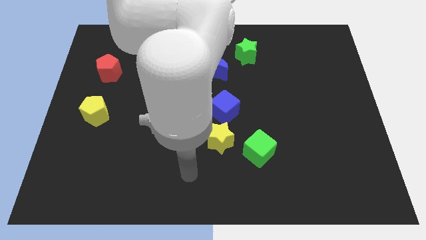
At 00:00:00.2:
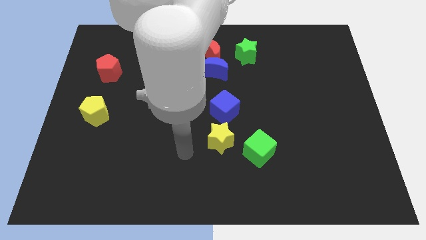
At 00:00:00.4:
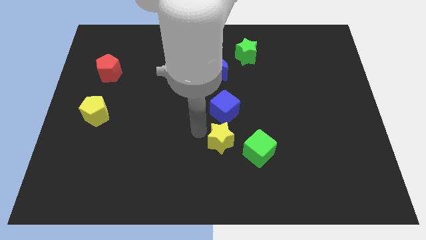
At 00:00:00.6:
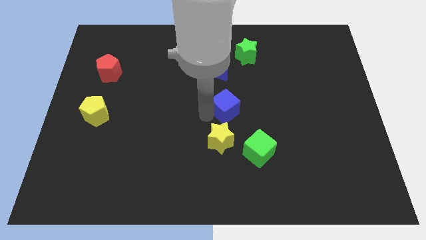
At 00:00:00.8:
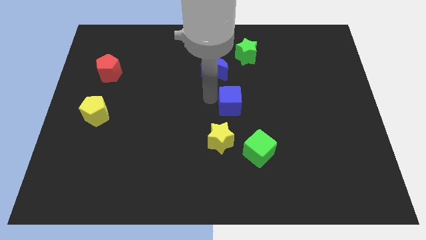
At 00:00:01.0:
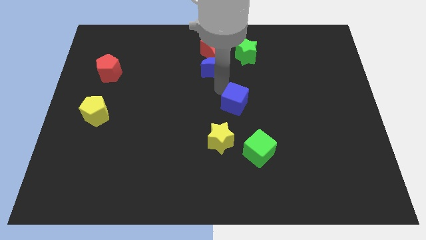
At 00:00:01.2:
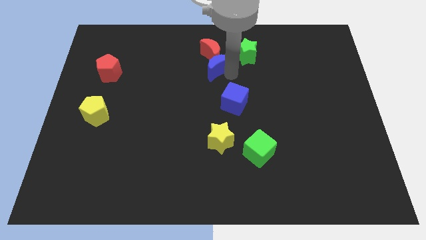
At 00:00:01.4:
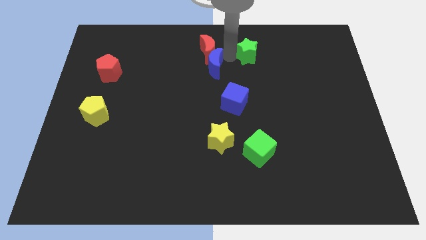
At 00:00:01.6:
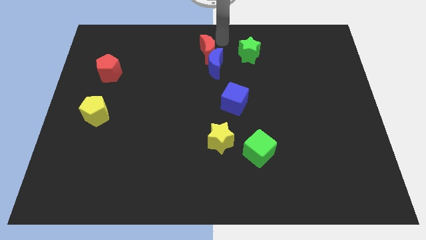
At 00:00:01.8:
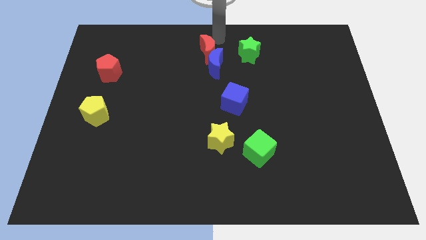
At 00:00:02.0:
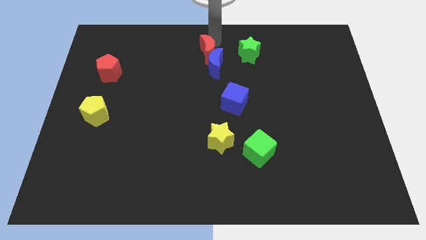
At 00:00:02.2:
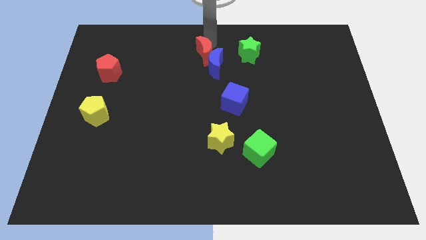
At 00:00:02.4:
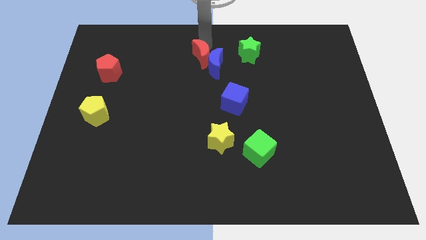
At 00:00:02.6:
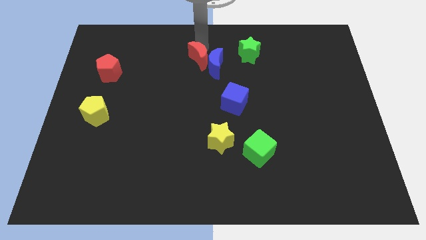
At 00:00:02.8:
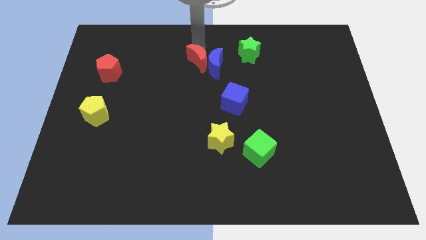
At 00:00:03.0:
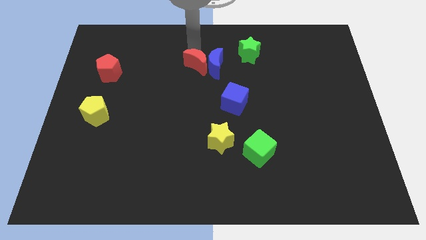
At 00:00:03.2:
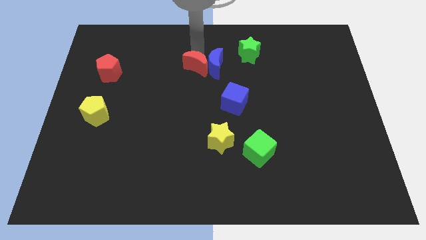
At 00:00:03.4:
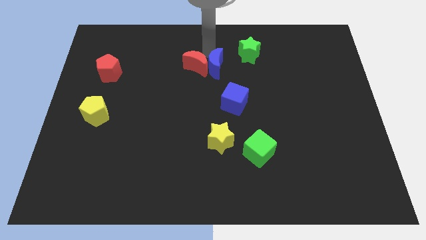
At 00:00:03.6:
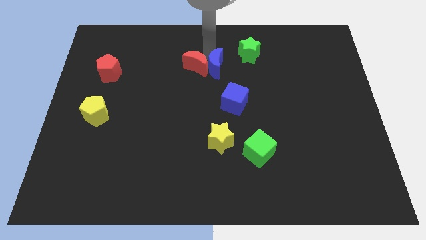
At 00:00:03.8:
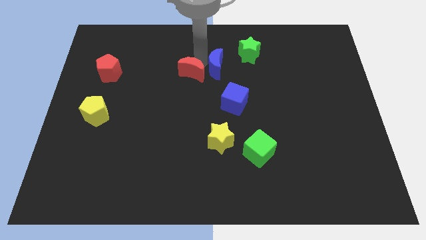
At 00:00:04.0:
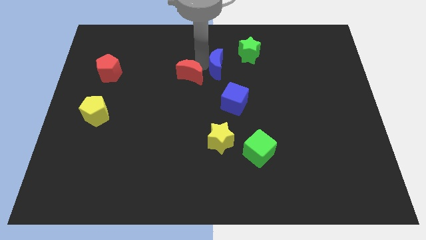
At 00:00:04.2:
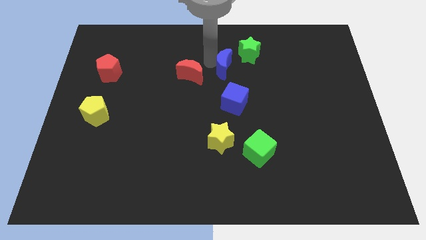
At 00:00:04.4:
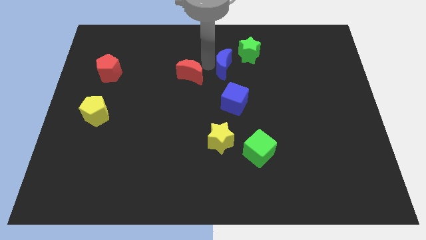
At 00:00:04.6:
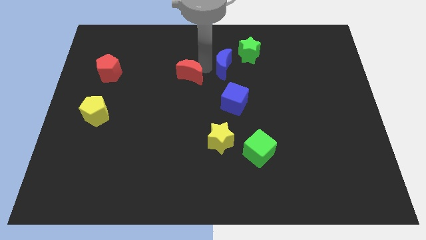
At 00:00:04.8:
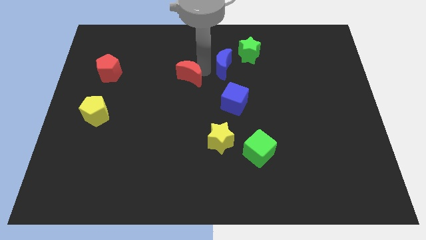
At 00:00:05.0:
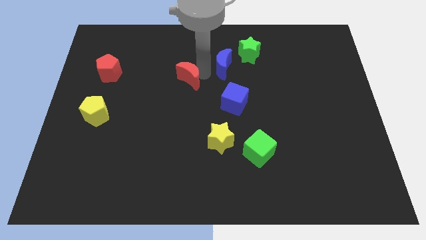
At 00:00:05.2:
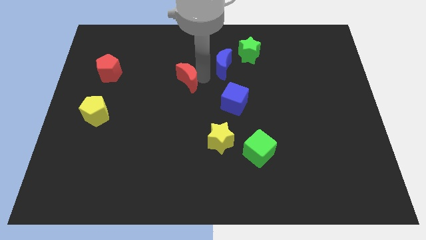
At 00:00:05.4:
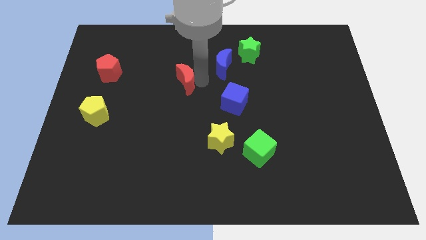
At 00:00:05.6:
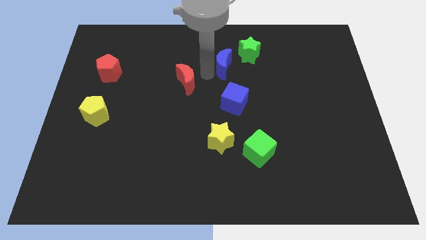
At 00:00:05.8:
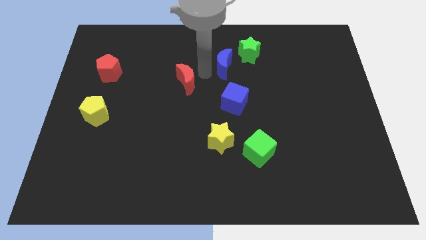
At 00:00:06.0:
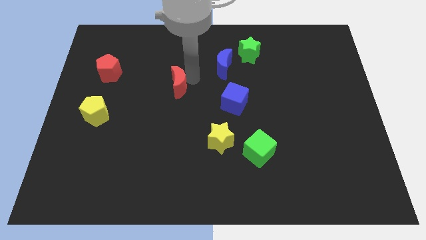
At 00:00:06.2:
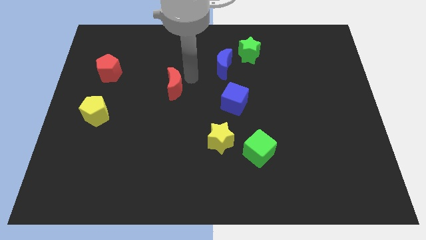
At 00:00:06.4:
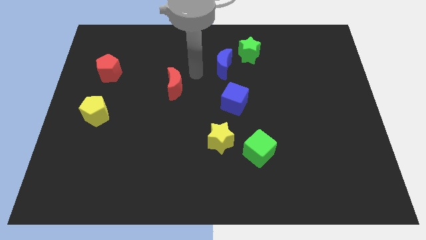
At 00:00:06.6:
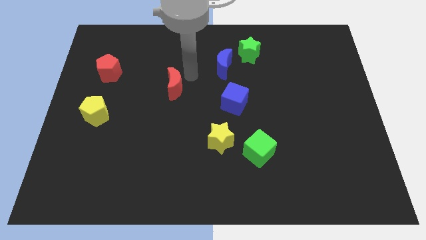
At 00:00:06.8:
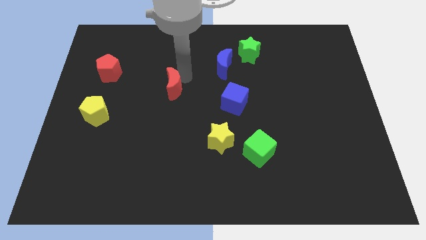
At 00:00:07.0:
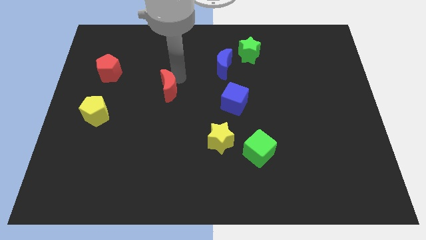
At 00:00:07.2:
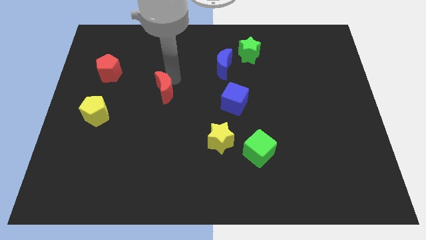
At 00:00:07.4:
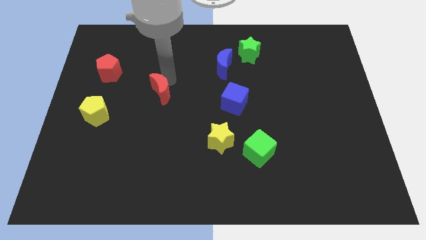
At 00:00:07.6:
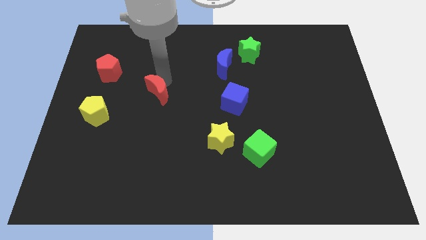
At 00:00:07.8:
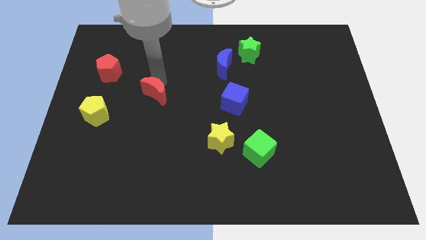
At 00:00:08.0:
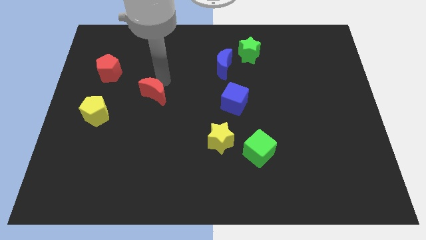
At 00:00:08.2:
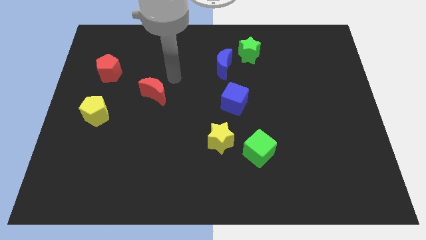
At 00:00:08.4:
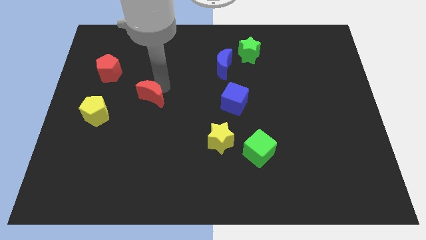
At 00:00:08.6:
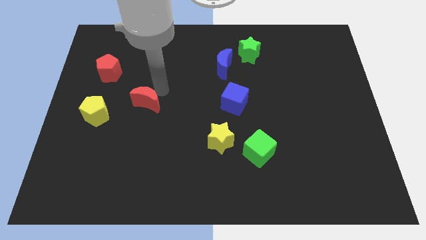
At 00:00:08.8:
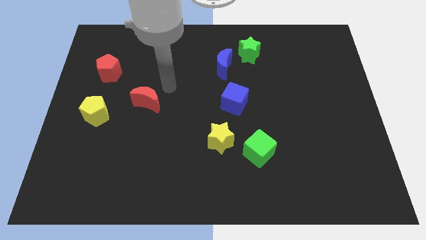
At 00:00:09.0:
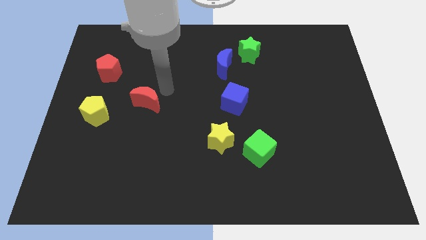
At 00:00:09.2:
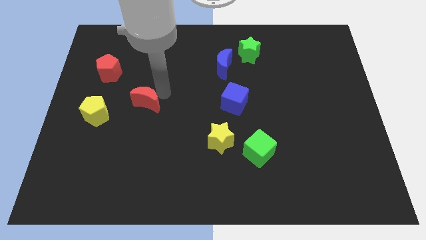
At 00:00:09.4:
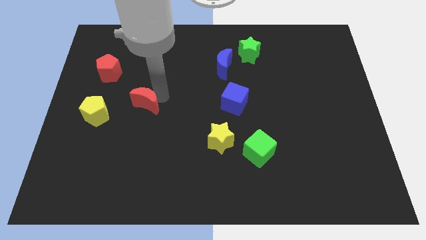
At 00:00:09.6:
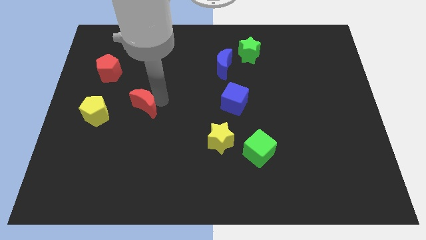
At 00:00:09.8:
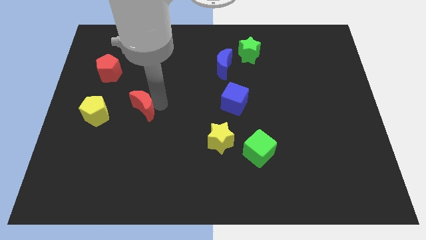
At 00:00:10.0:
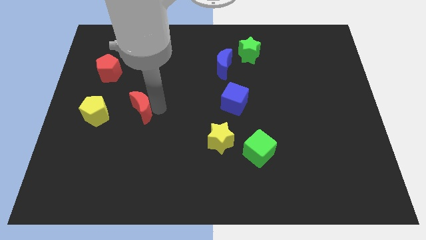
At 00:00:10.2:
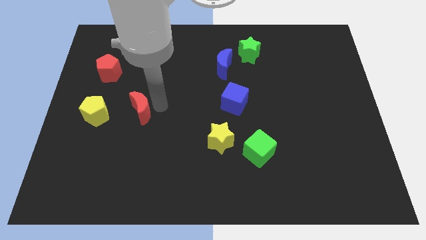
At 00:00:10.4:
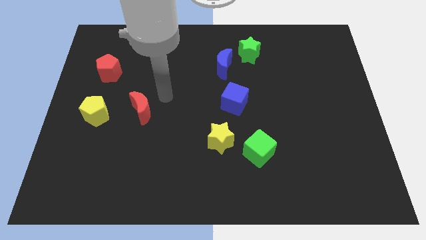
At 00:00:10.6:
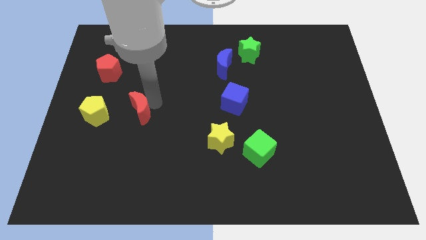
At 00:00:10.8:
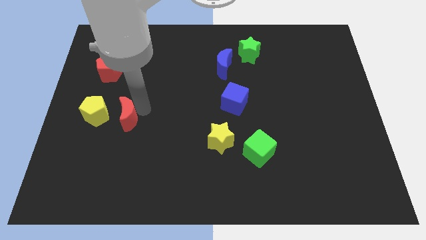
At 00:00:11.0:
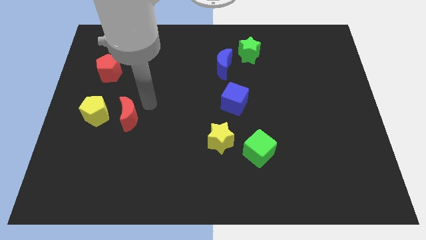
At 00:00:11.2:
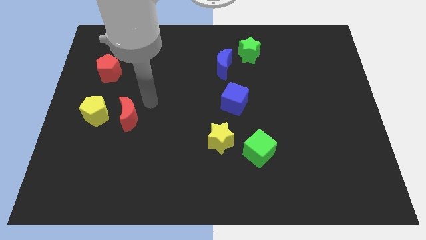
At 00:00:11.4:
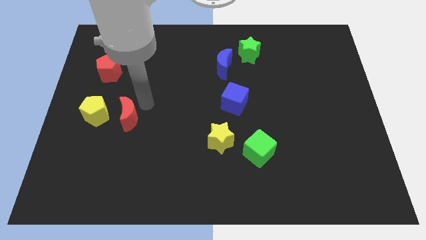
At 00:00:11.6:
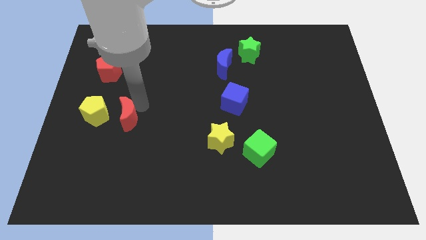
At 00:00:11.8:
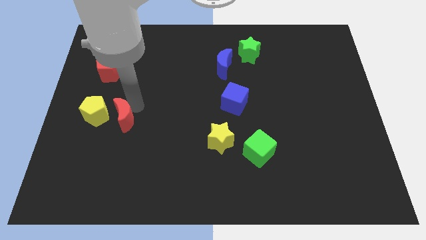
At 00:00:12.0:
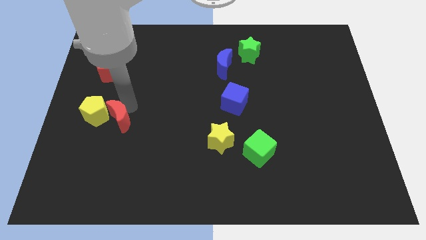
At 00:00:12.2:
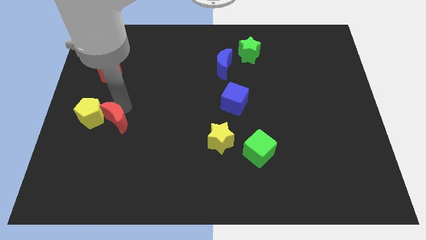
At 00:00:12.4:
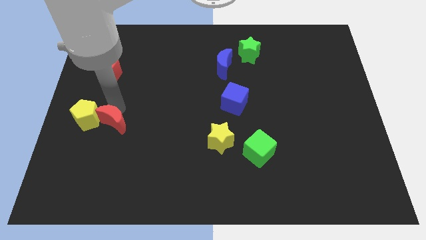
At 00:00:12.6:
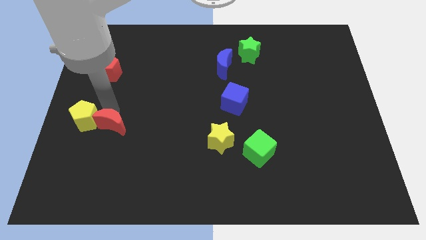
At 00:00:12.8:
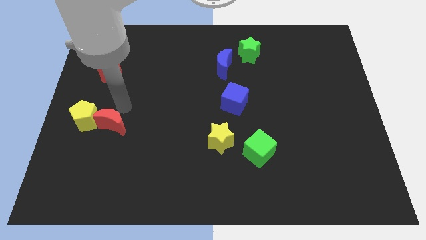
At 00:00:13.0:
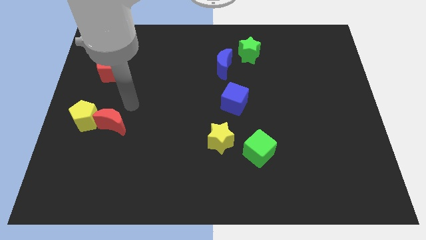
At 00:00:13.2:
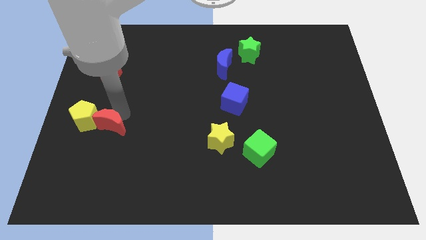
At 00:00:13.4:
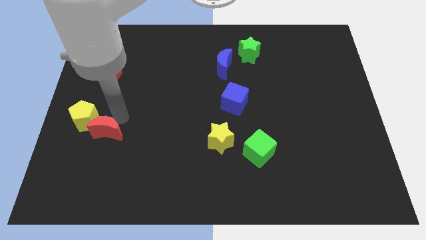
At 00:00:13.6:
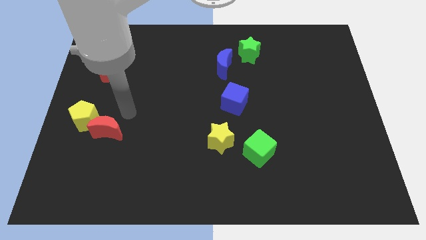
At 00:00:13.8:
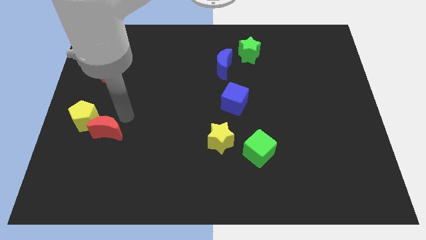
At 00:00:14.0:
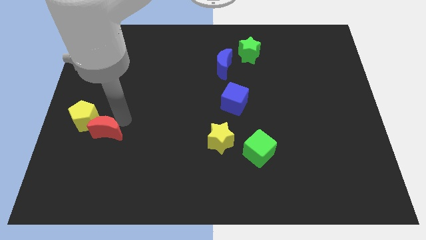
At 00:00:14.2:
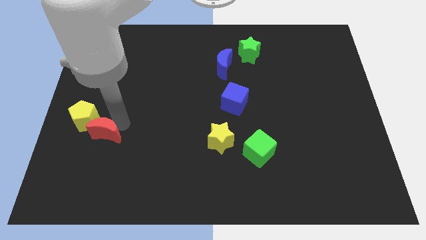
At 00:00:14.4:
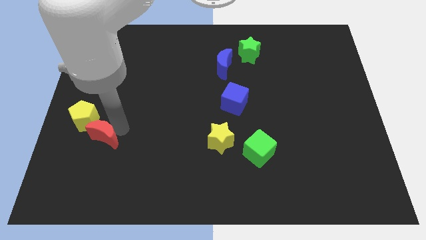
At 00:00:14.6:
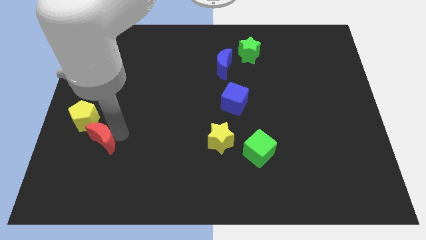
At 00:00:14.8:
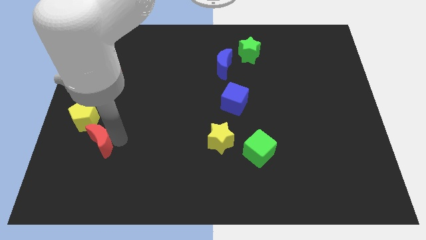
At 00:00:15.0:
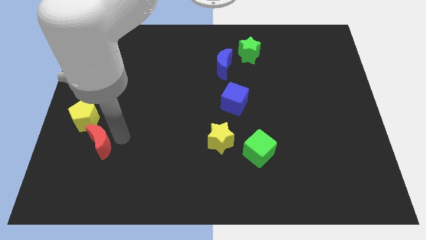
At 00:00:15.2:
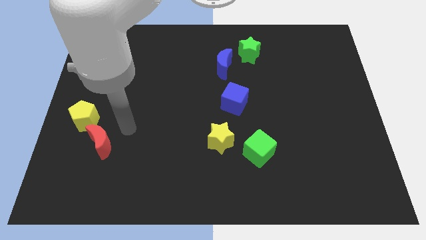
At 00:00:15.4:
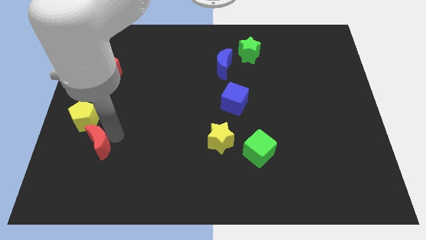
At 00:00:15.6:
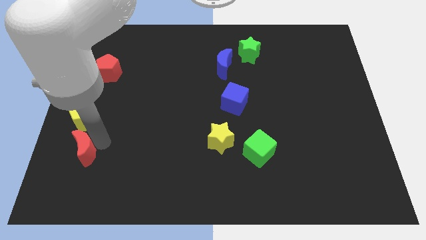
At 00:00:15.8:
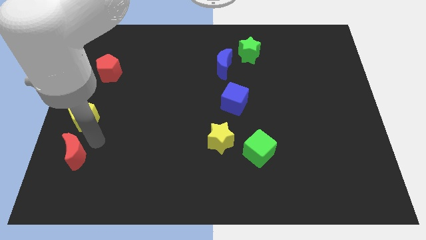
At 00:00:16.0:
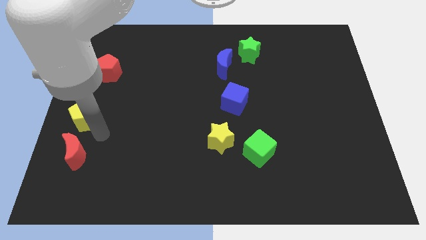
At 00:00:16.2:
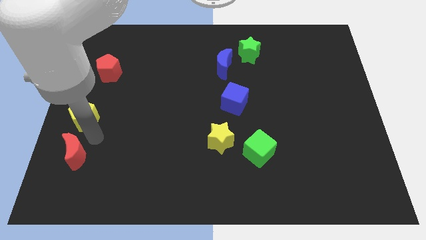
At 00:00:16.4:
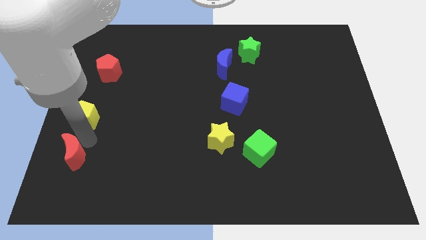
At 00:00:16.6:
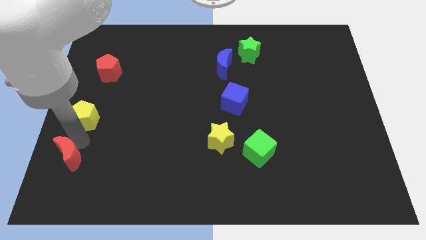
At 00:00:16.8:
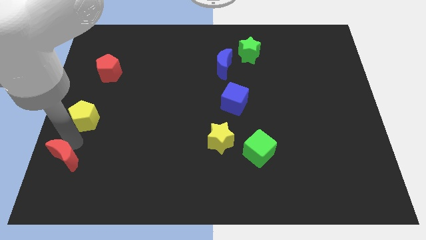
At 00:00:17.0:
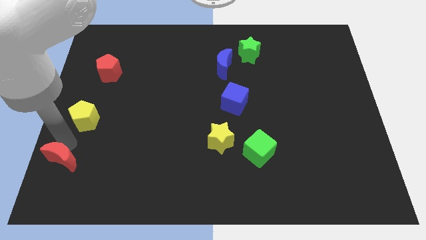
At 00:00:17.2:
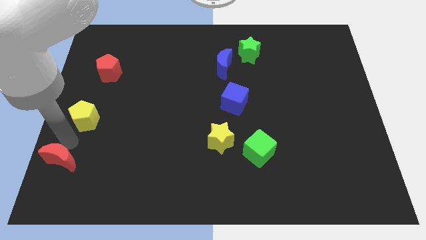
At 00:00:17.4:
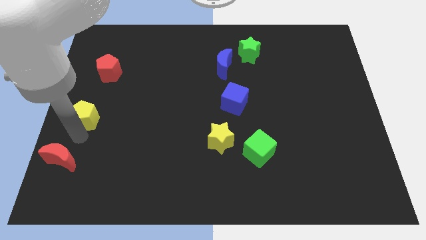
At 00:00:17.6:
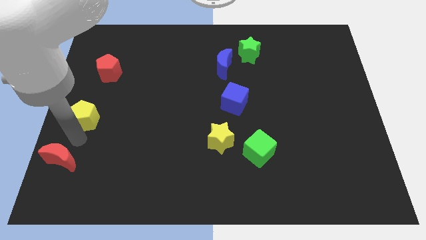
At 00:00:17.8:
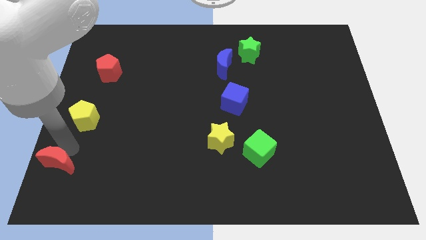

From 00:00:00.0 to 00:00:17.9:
move the red moon to the bottom left
